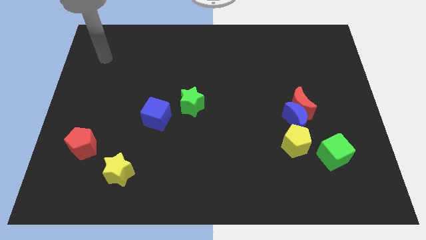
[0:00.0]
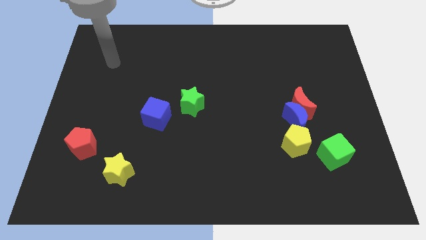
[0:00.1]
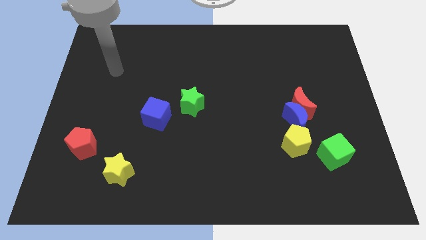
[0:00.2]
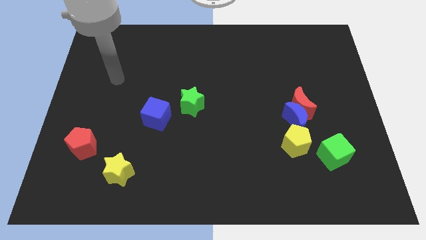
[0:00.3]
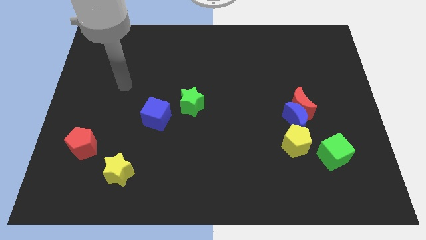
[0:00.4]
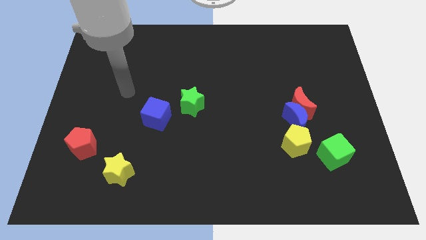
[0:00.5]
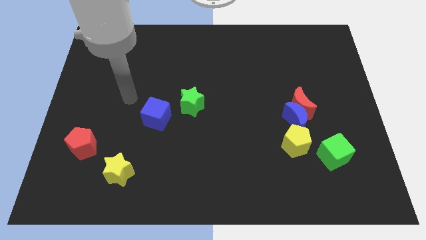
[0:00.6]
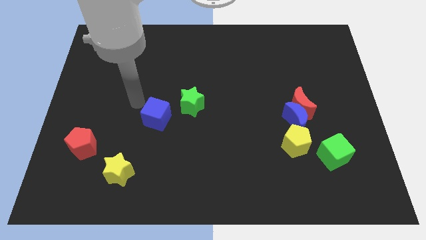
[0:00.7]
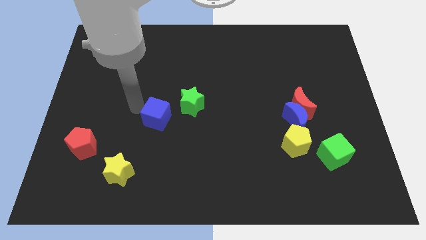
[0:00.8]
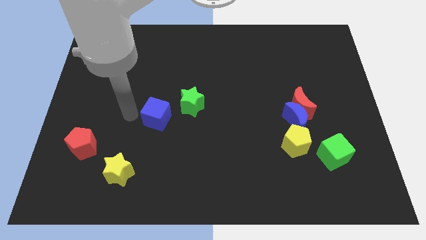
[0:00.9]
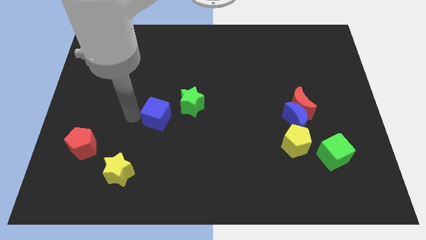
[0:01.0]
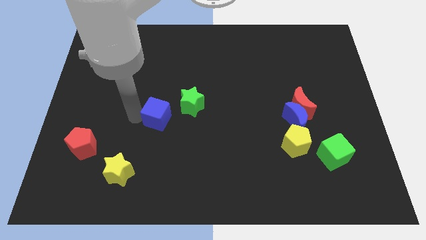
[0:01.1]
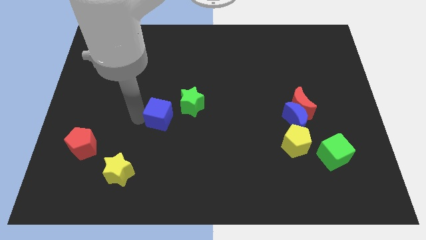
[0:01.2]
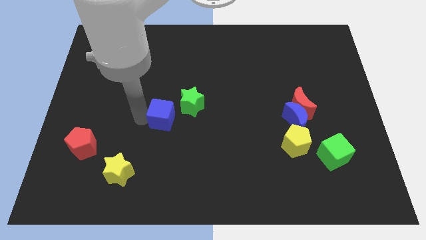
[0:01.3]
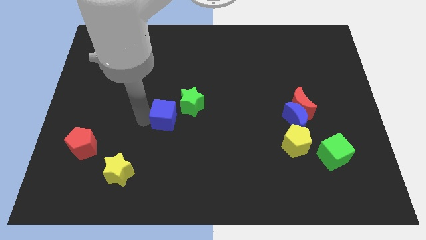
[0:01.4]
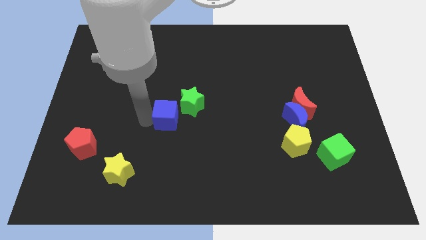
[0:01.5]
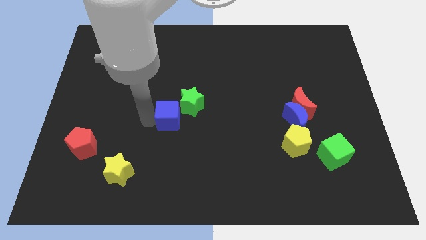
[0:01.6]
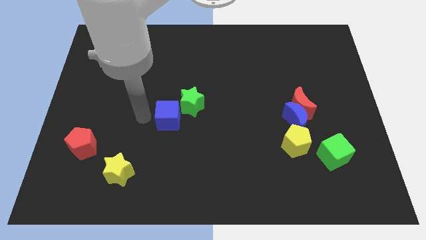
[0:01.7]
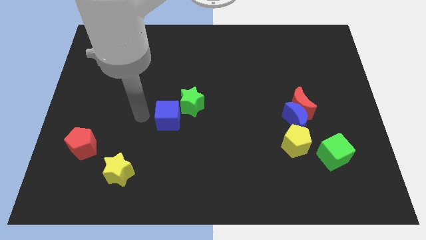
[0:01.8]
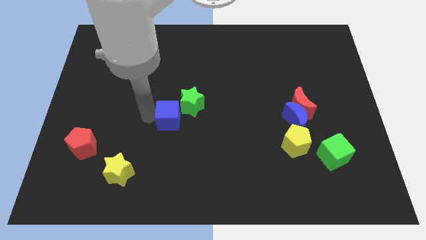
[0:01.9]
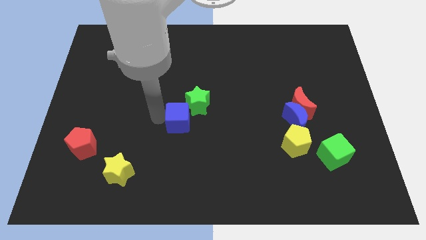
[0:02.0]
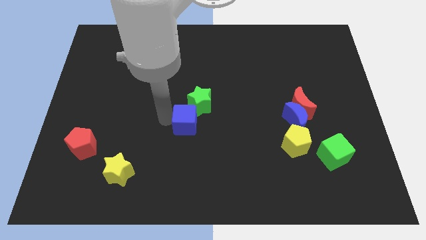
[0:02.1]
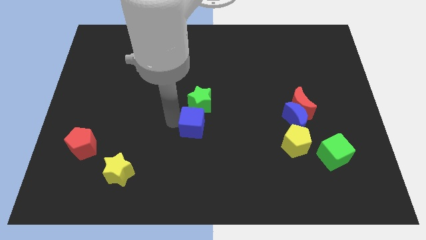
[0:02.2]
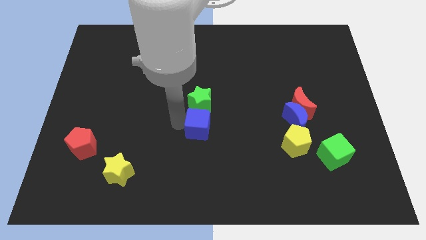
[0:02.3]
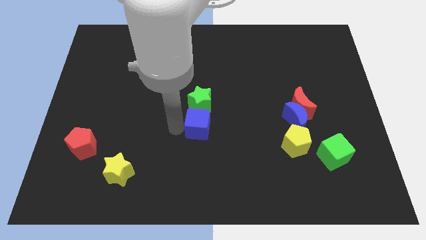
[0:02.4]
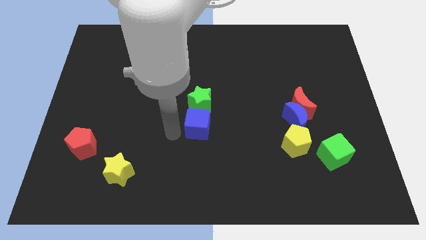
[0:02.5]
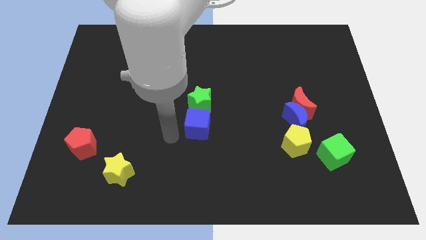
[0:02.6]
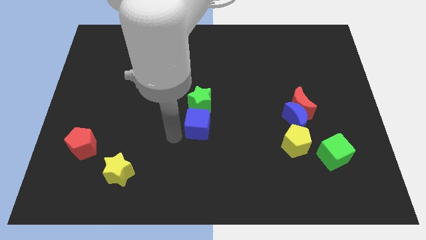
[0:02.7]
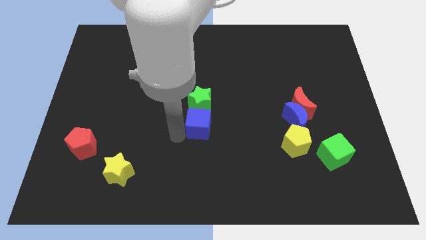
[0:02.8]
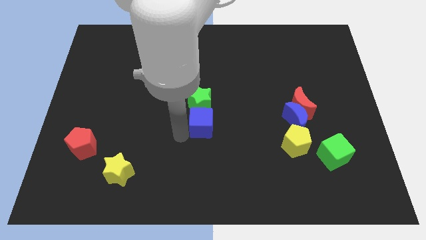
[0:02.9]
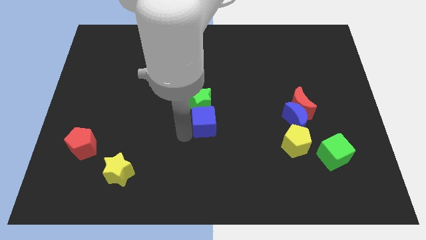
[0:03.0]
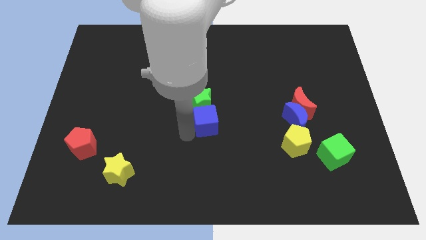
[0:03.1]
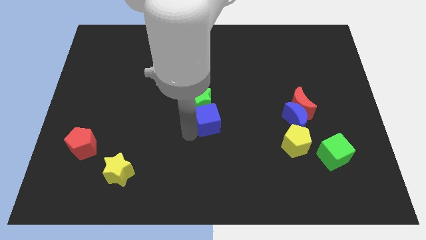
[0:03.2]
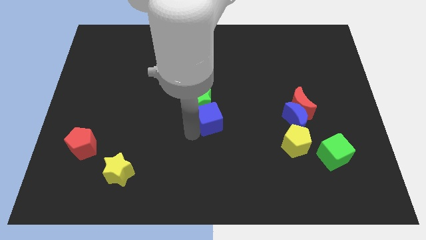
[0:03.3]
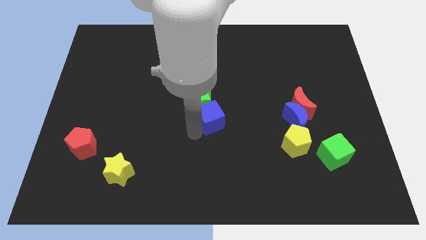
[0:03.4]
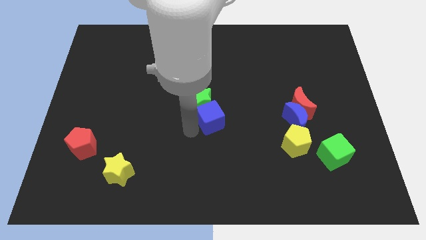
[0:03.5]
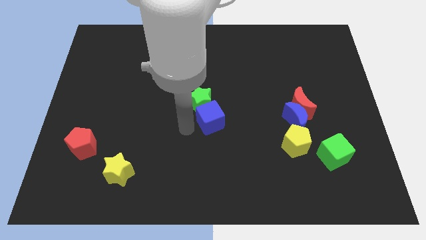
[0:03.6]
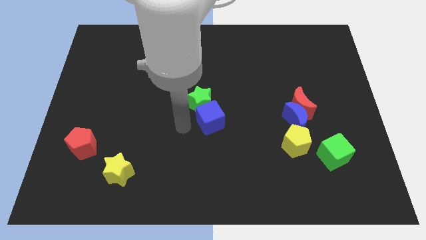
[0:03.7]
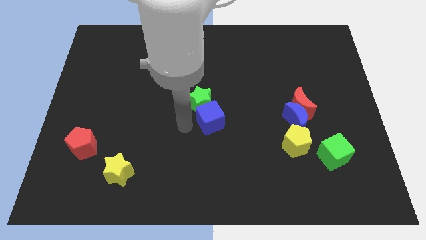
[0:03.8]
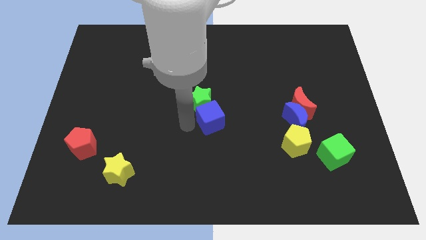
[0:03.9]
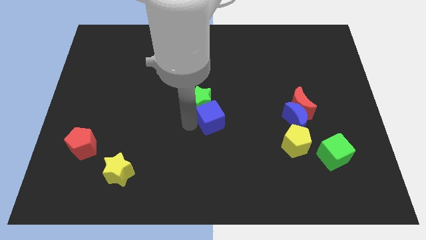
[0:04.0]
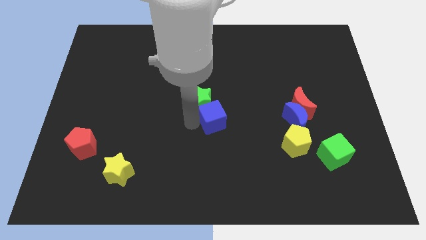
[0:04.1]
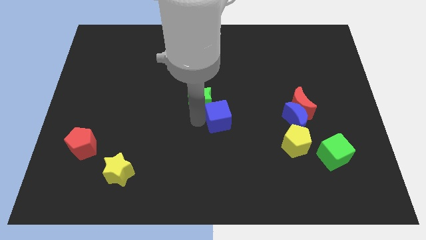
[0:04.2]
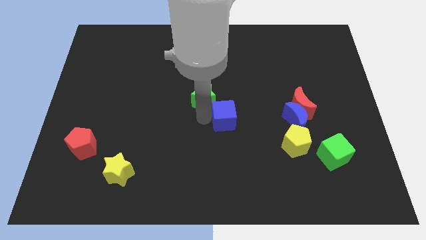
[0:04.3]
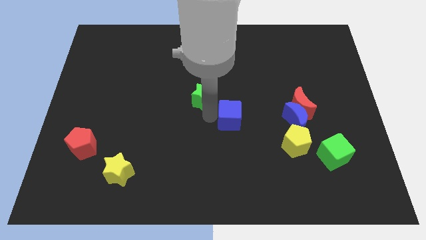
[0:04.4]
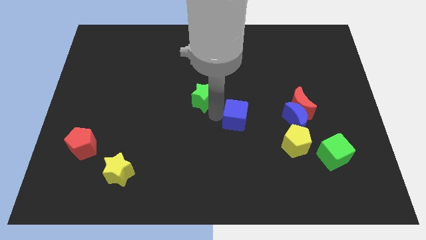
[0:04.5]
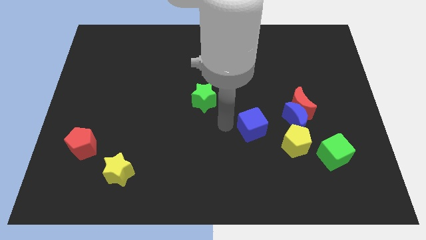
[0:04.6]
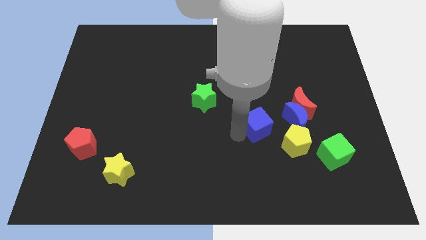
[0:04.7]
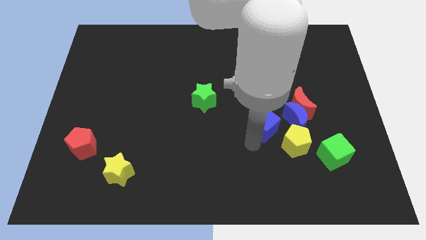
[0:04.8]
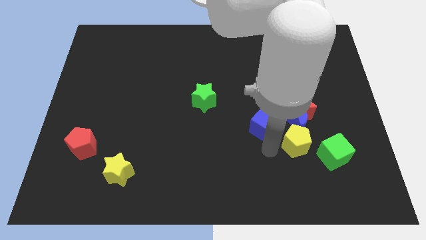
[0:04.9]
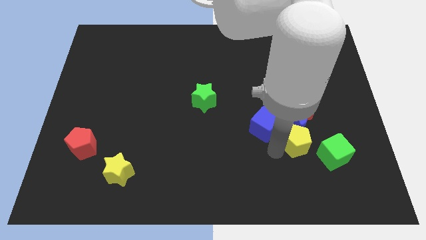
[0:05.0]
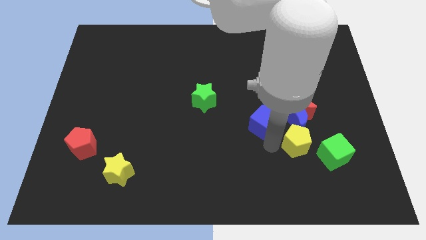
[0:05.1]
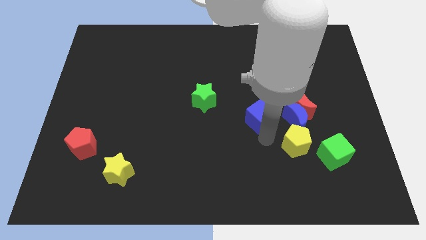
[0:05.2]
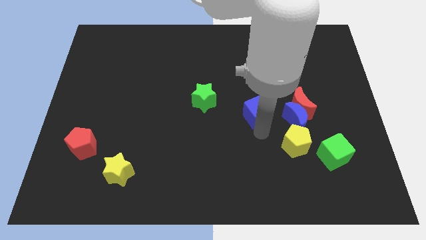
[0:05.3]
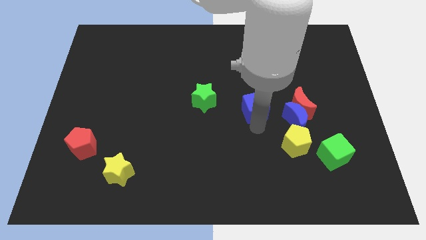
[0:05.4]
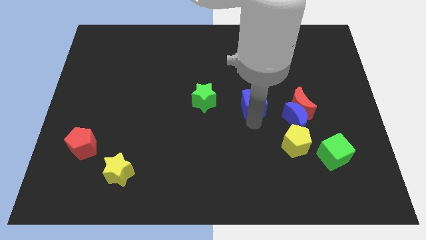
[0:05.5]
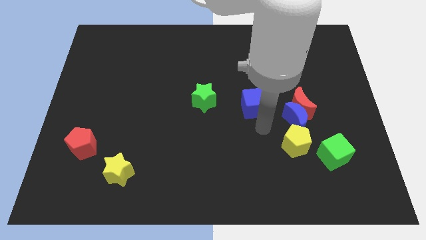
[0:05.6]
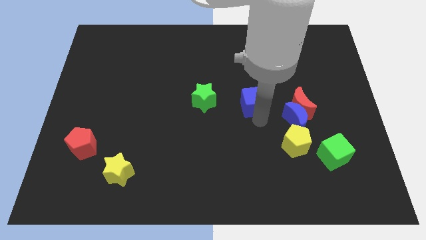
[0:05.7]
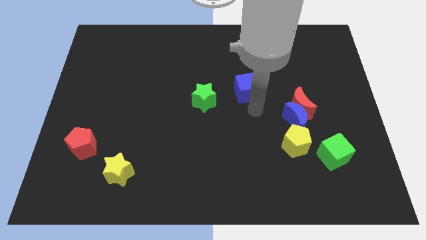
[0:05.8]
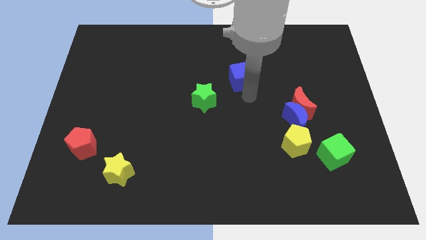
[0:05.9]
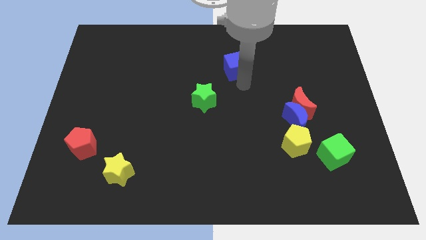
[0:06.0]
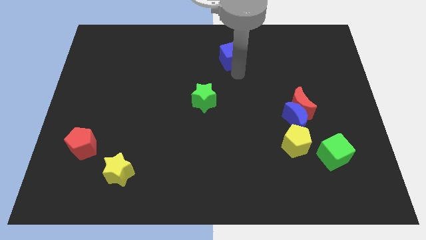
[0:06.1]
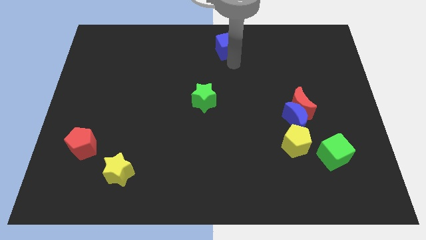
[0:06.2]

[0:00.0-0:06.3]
slide the blue cube to the top

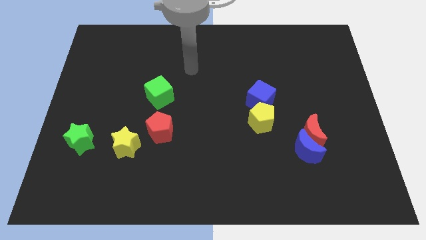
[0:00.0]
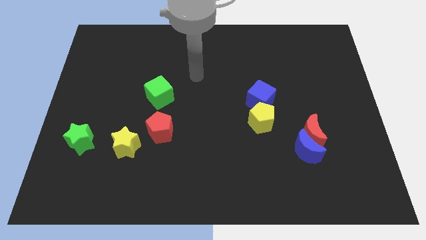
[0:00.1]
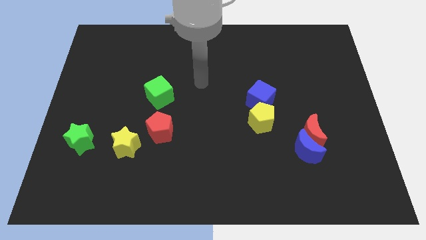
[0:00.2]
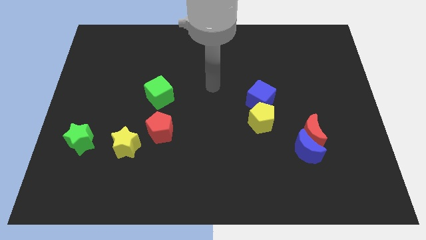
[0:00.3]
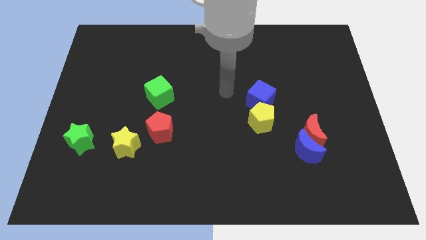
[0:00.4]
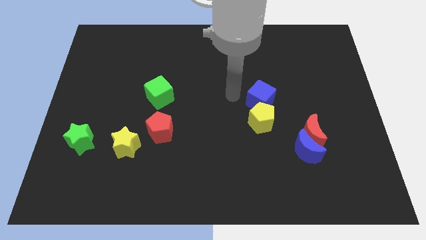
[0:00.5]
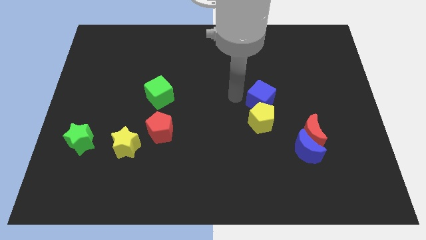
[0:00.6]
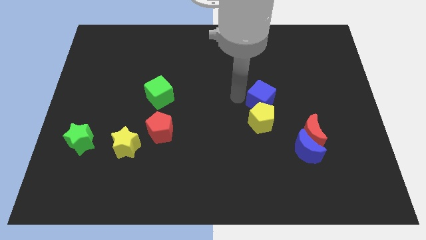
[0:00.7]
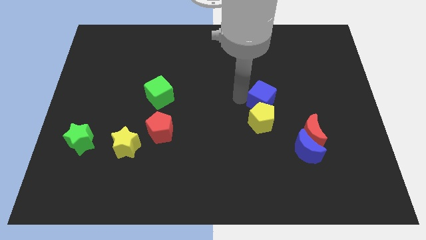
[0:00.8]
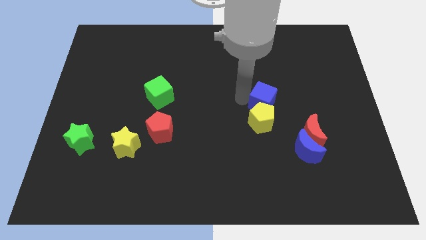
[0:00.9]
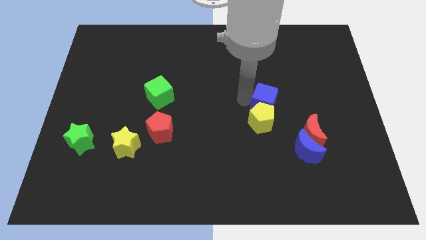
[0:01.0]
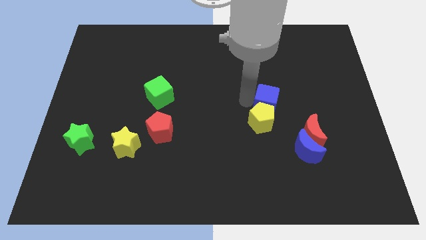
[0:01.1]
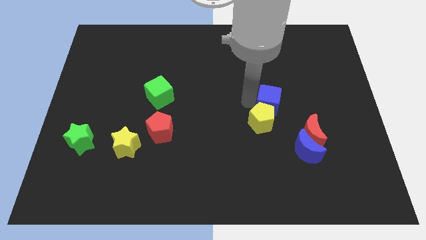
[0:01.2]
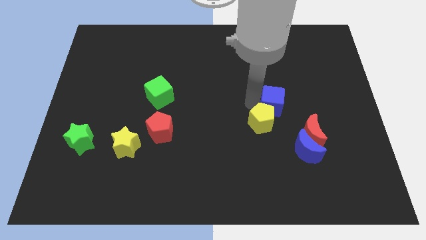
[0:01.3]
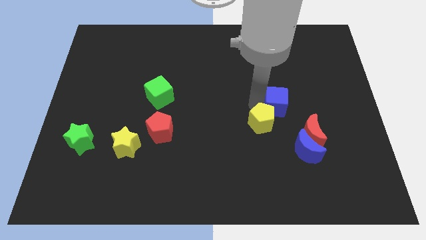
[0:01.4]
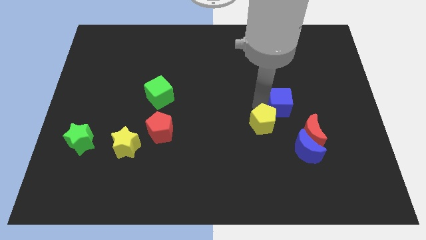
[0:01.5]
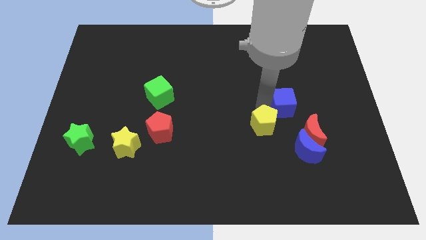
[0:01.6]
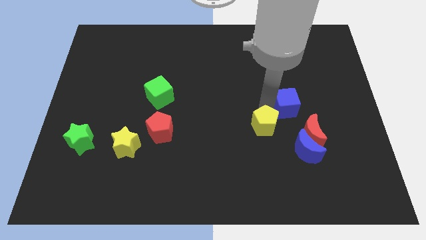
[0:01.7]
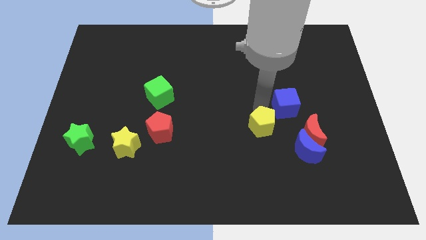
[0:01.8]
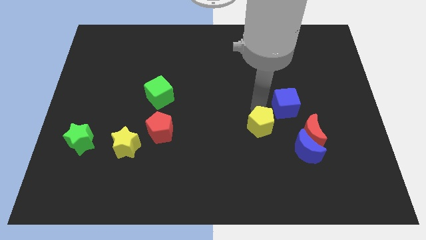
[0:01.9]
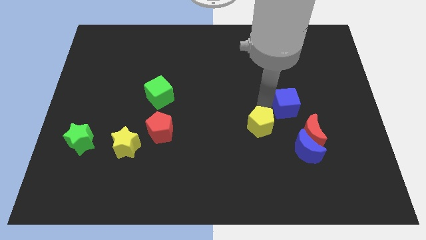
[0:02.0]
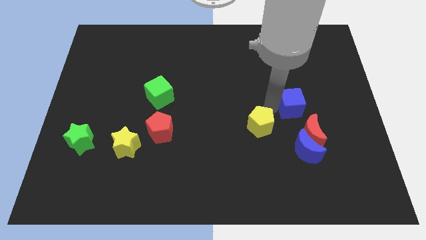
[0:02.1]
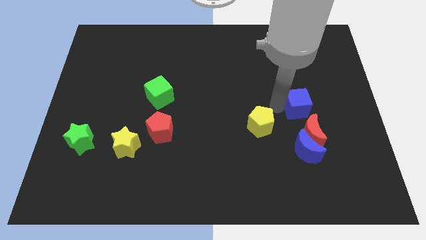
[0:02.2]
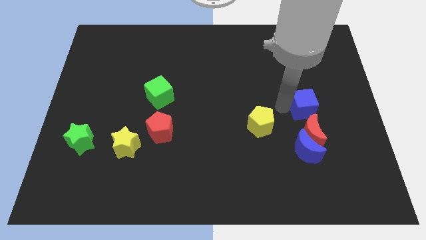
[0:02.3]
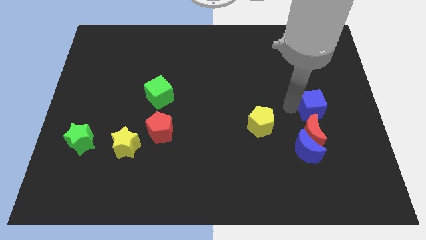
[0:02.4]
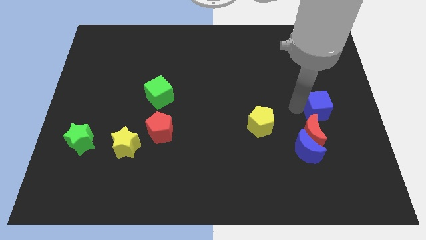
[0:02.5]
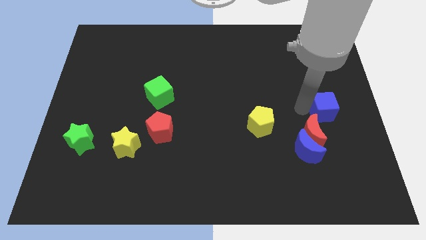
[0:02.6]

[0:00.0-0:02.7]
slide the blue cube to the center right
